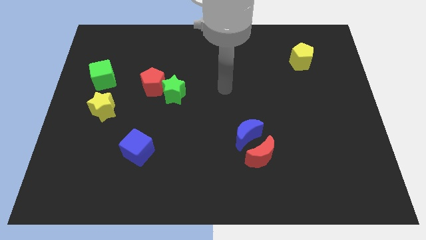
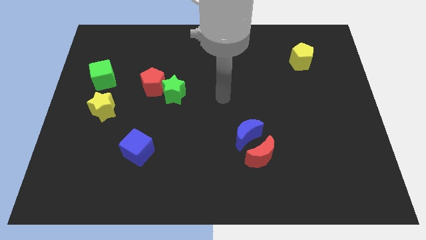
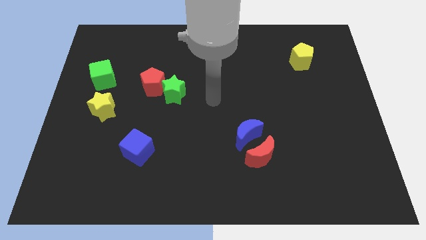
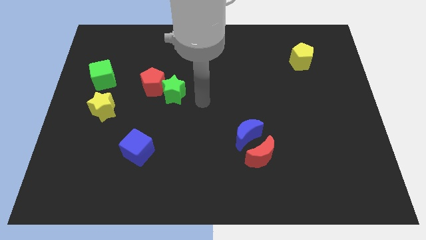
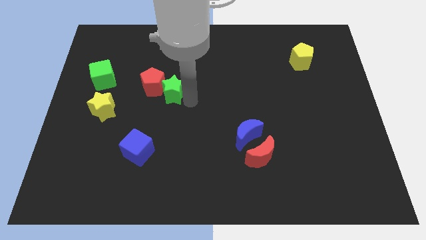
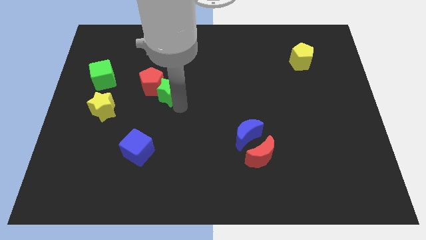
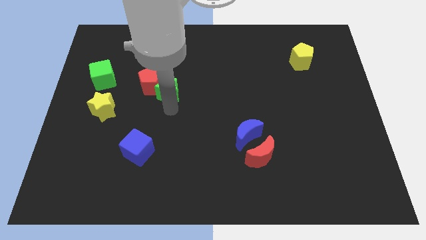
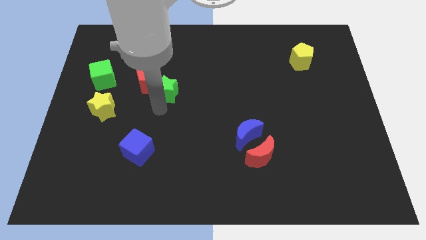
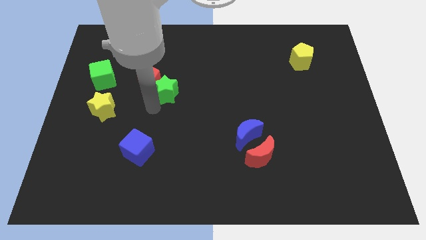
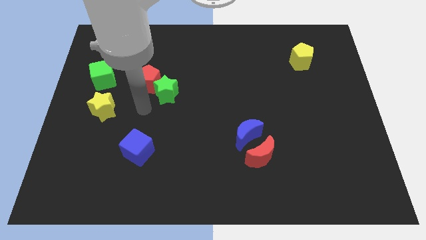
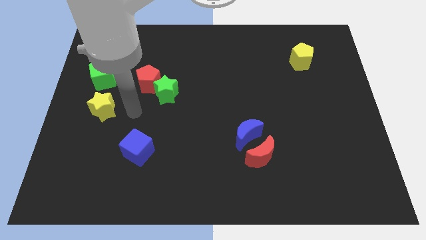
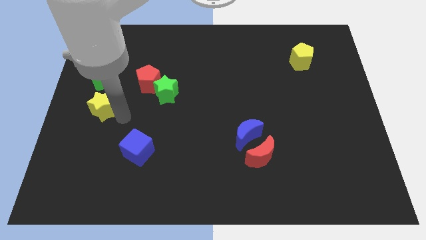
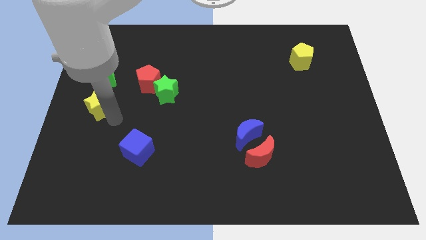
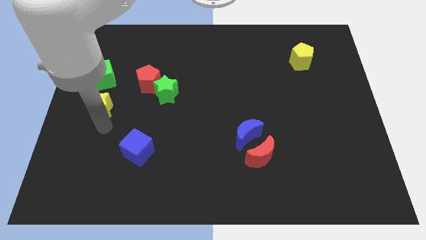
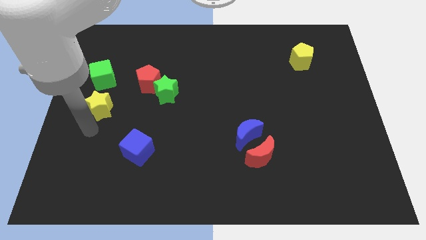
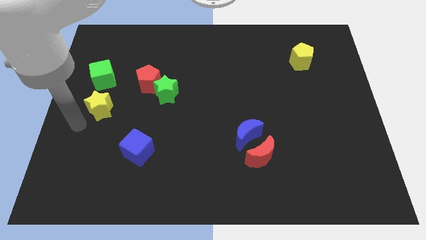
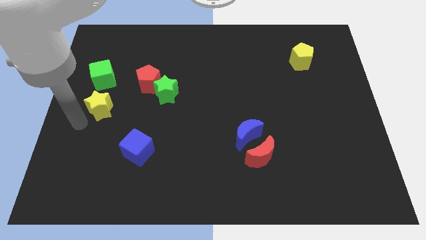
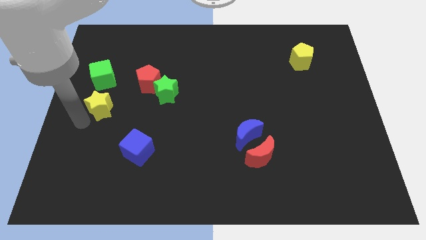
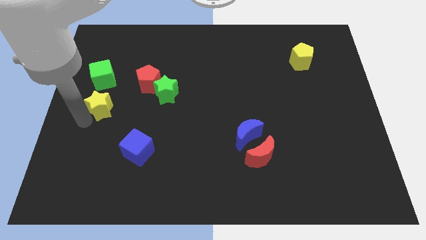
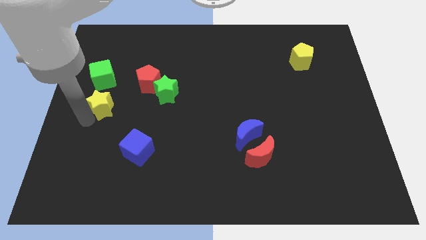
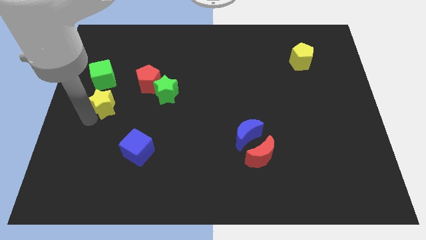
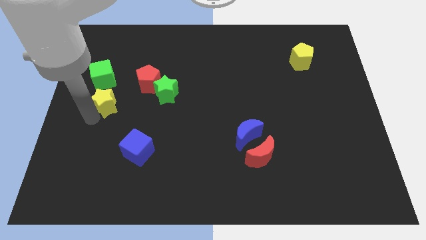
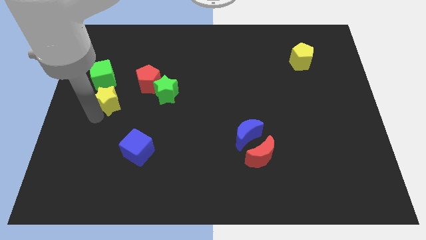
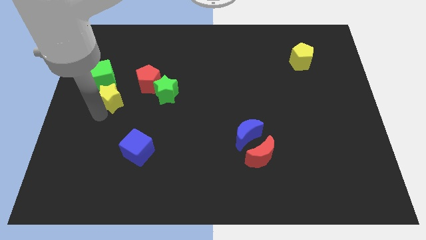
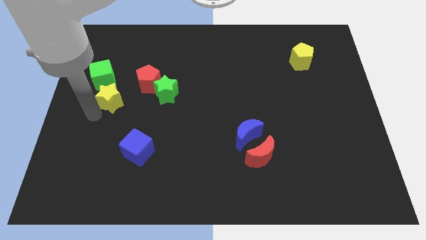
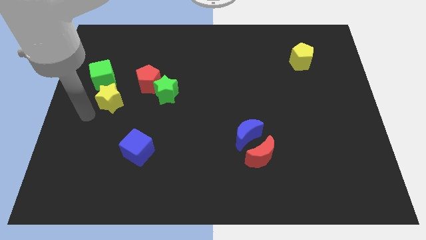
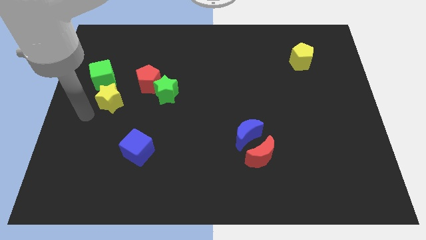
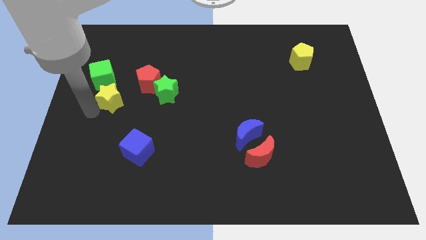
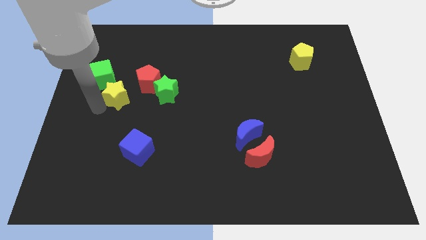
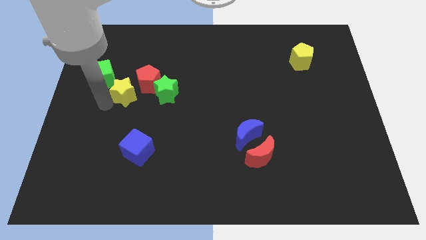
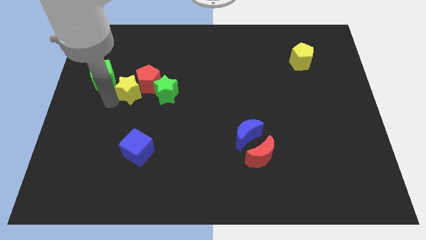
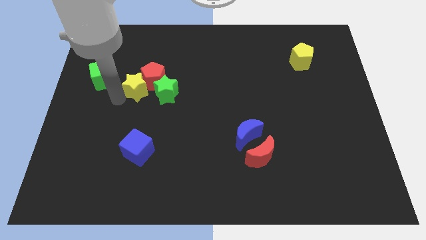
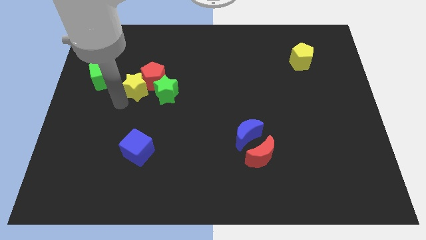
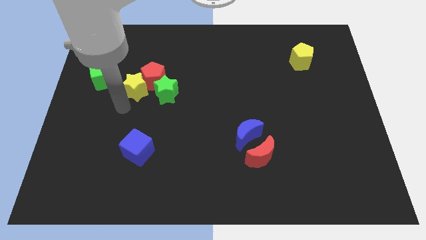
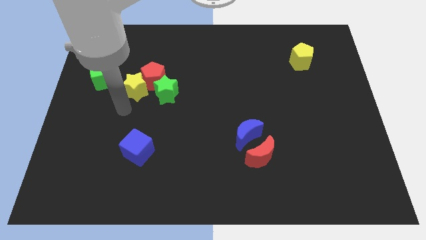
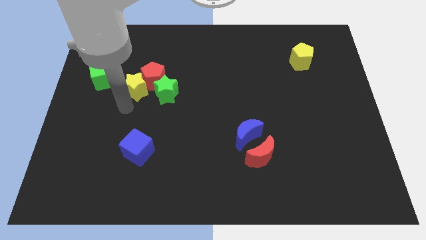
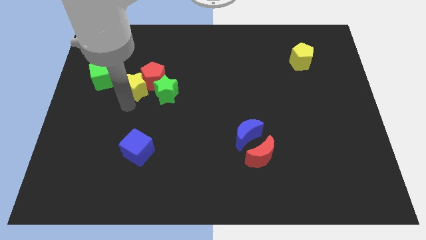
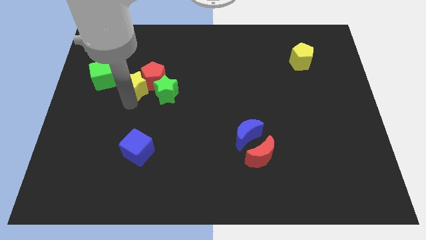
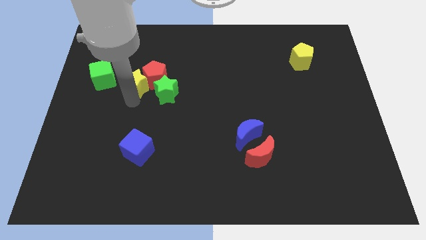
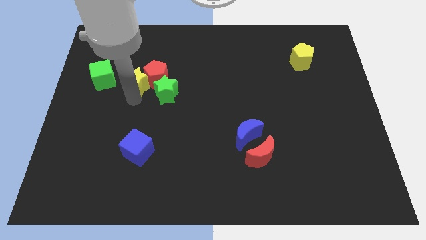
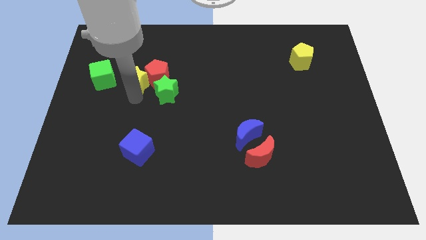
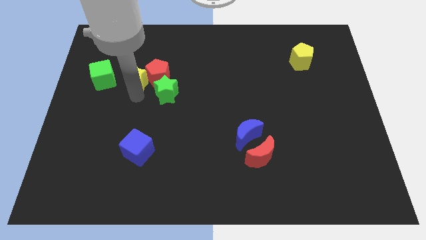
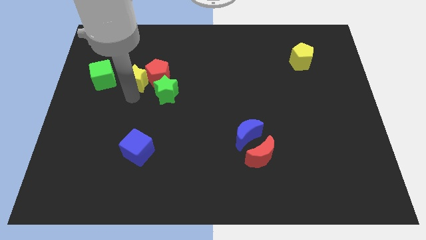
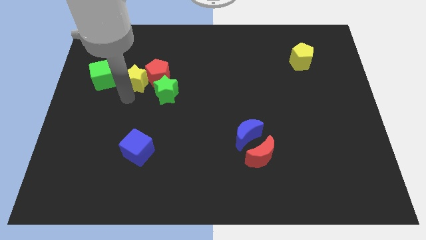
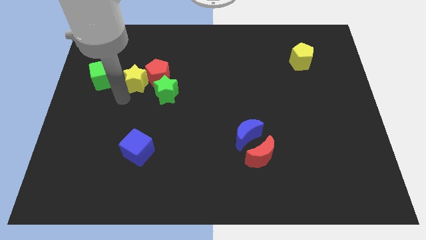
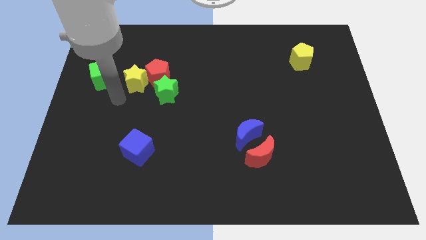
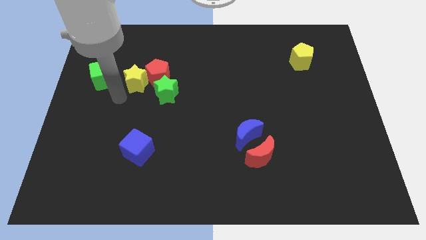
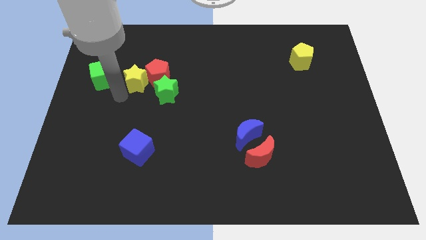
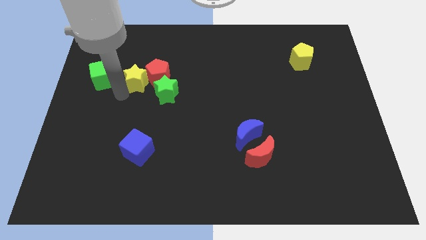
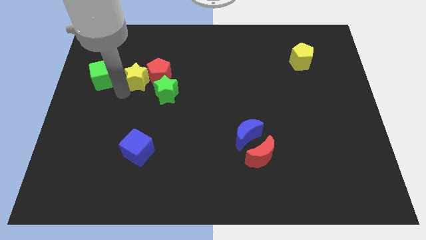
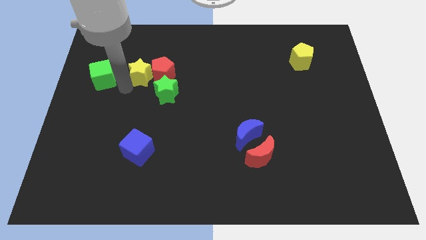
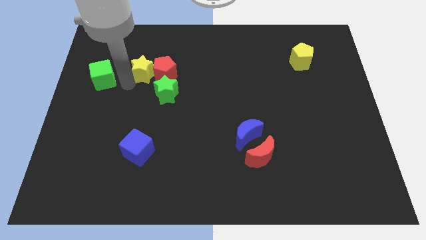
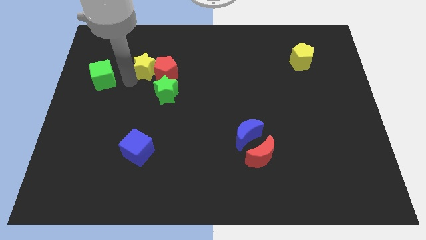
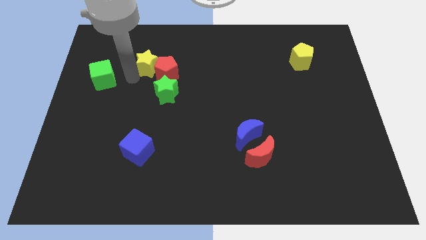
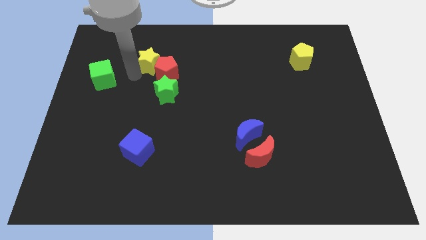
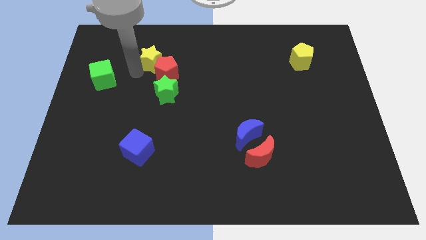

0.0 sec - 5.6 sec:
move the yellow star to the top side of the red pentagon

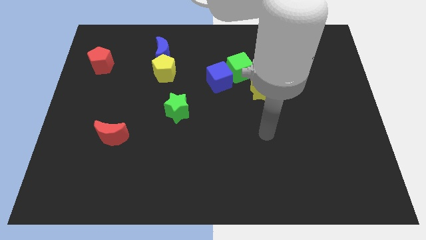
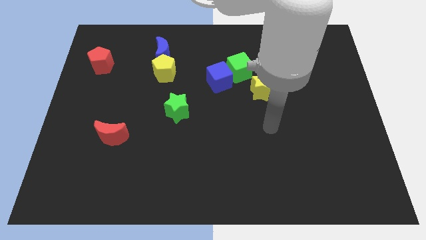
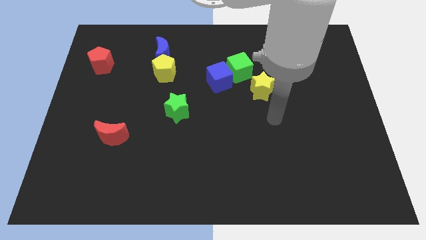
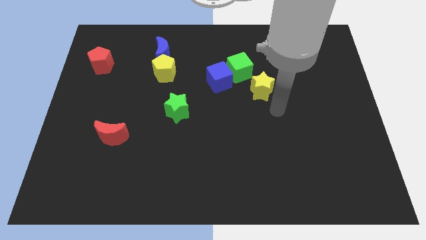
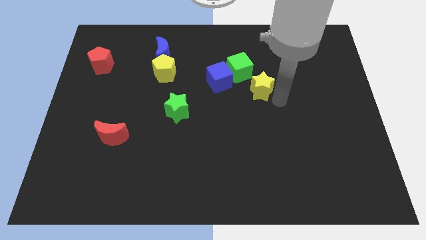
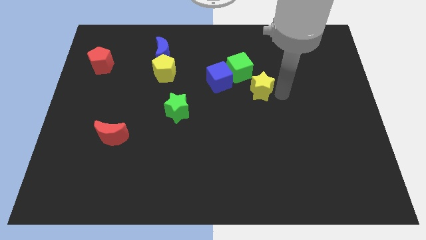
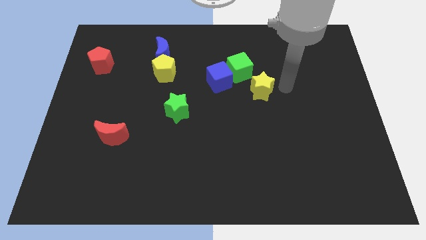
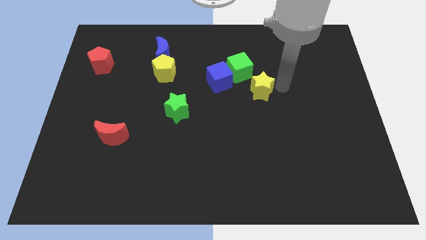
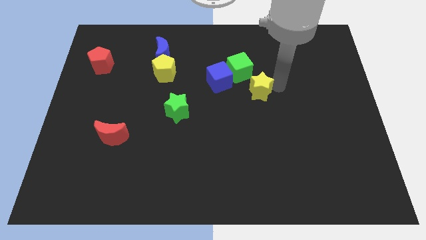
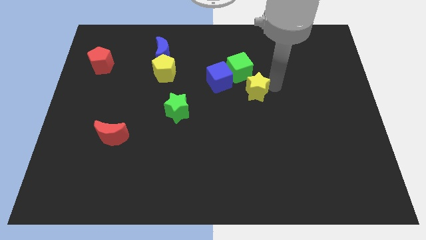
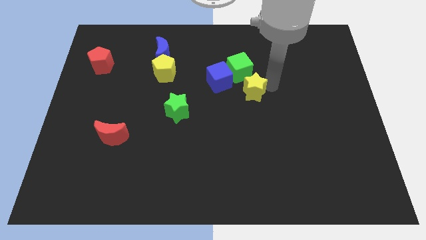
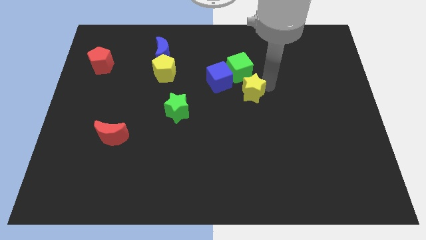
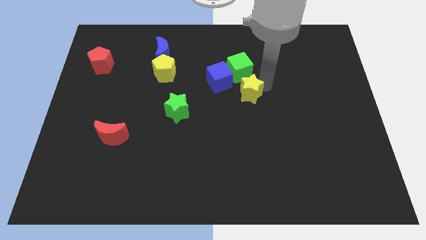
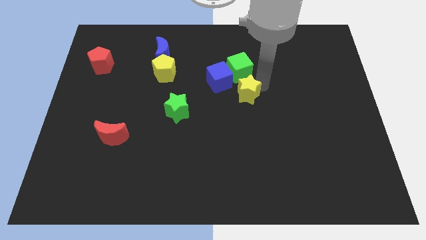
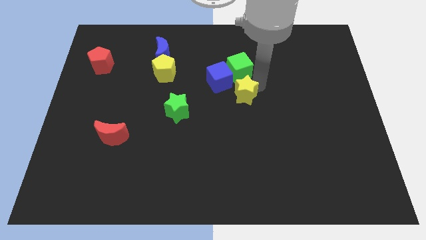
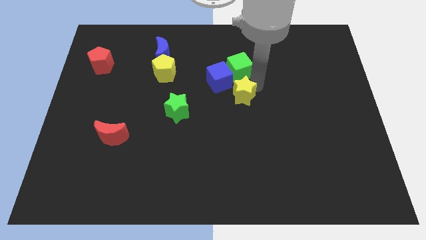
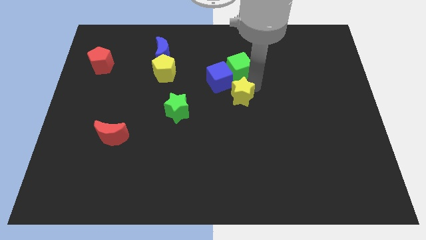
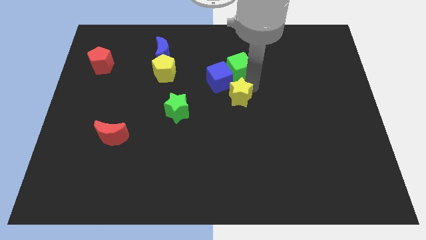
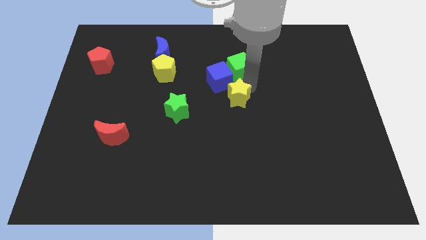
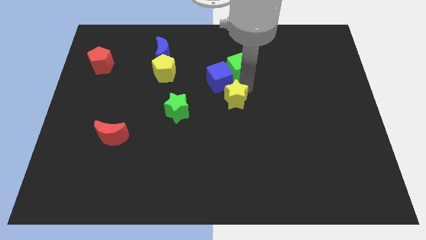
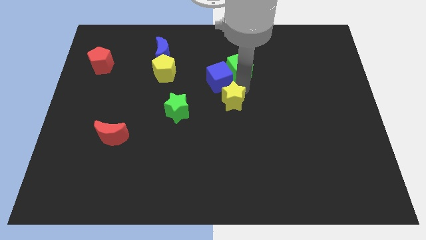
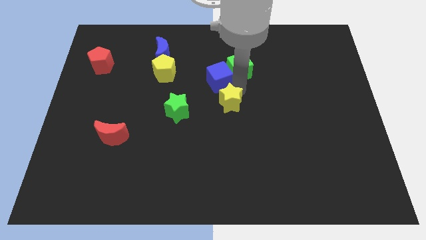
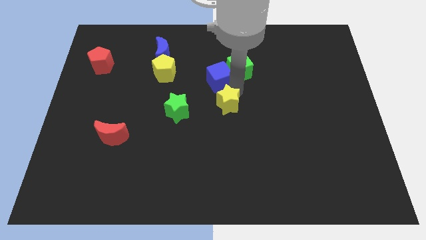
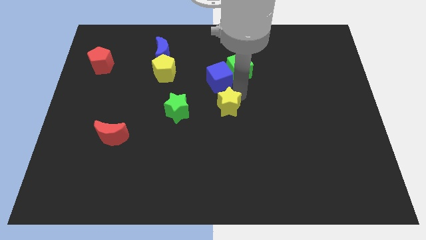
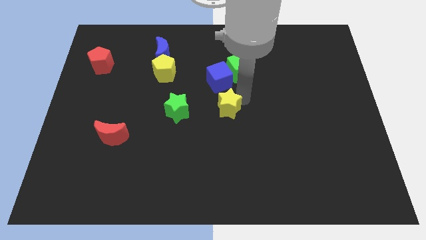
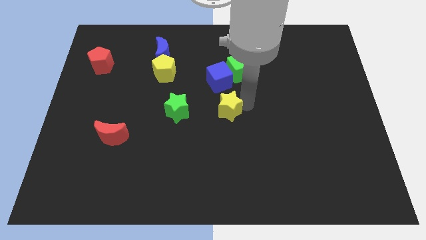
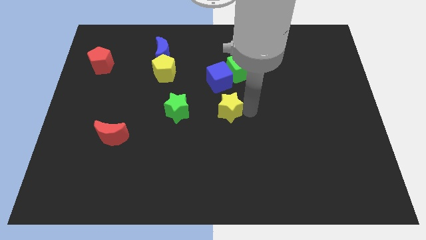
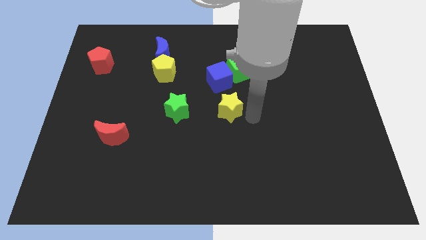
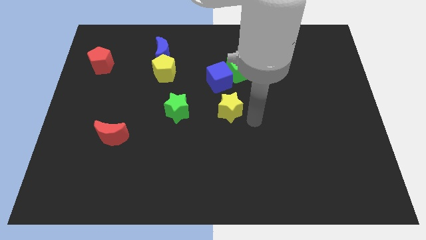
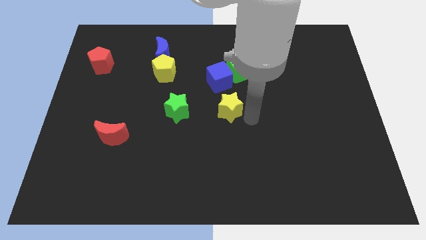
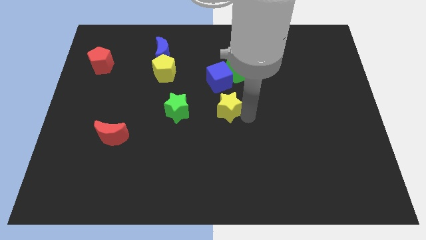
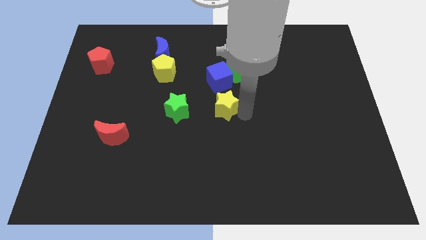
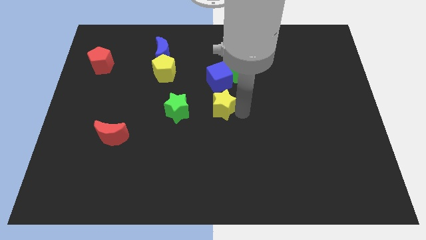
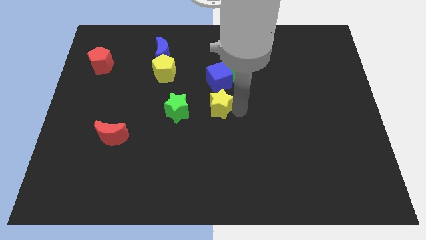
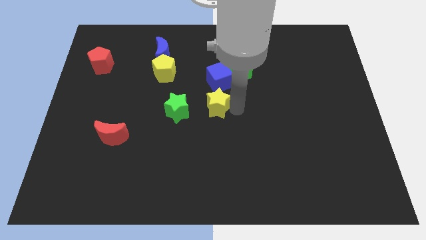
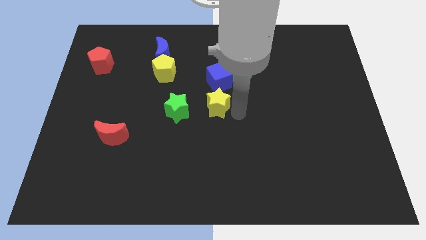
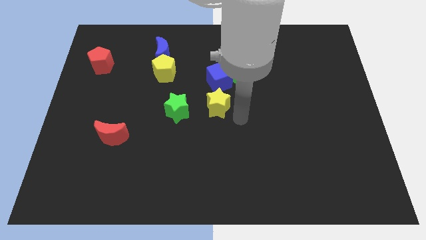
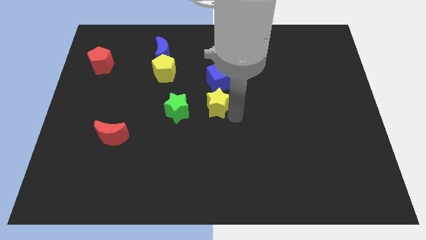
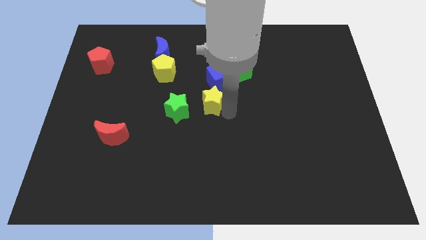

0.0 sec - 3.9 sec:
put the yellow star to the bottom left side of the blue cube
